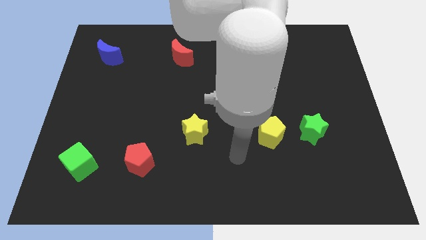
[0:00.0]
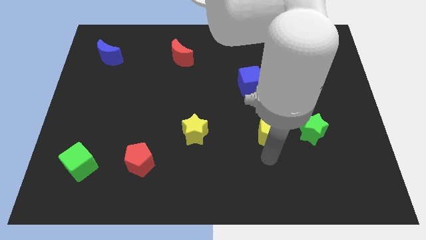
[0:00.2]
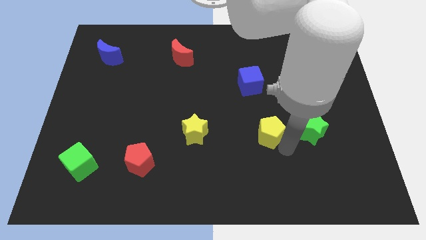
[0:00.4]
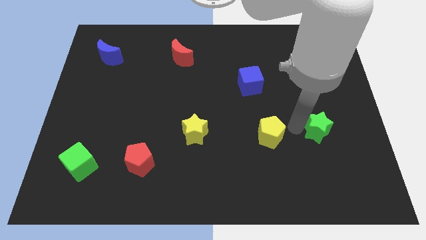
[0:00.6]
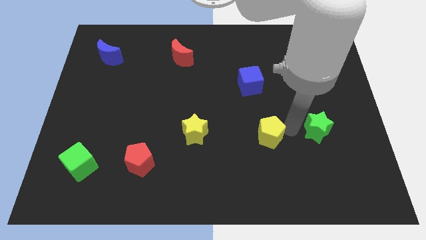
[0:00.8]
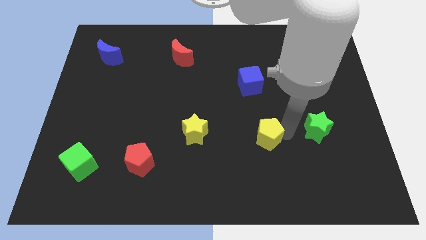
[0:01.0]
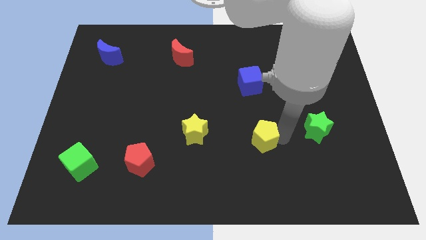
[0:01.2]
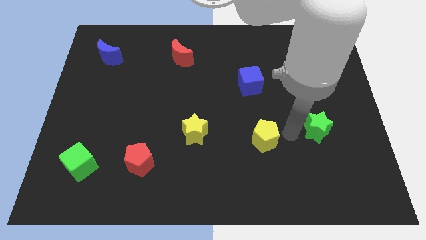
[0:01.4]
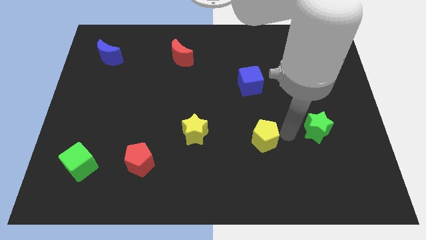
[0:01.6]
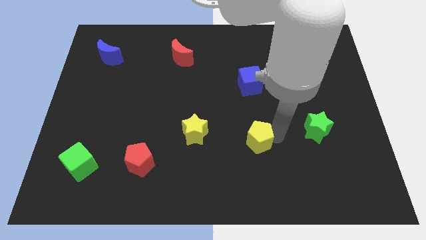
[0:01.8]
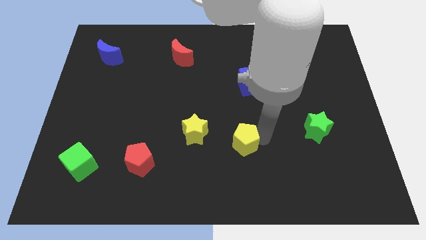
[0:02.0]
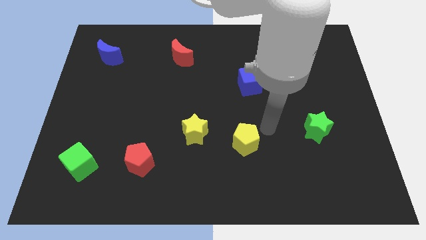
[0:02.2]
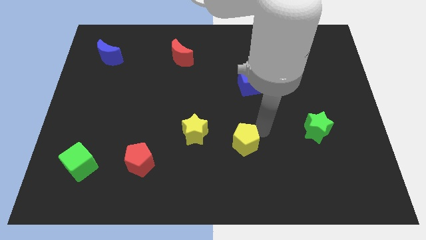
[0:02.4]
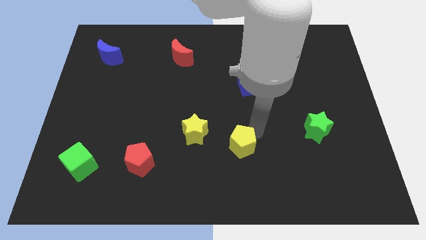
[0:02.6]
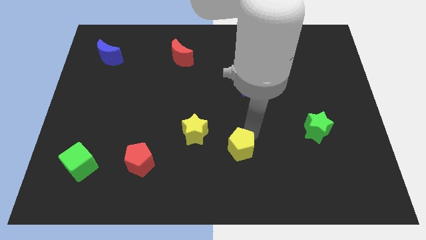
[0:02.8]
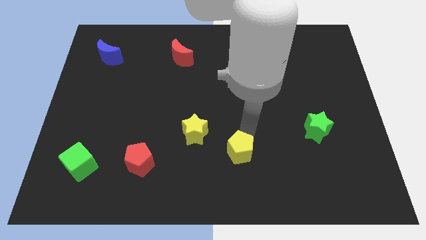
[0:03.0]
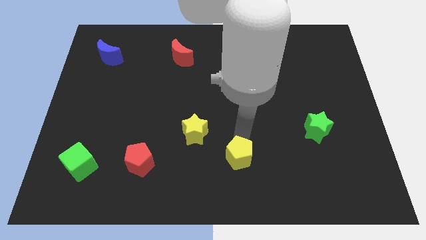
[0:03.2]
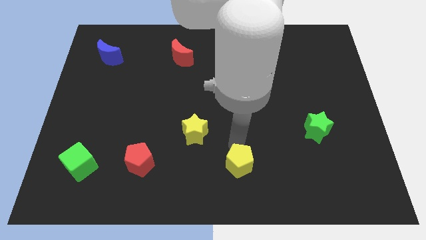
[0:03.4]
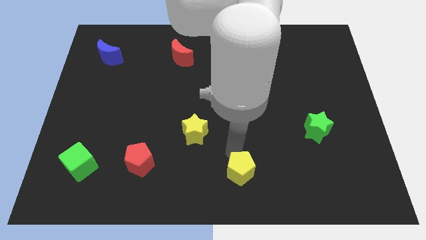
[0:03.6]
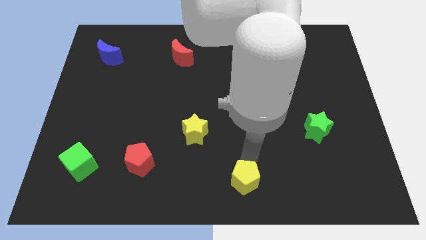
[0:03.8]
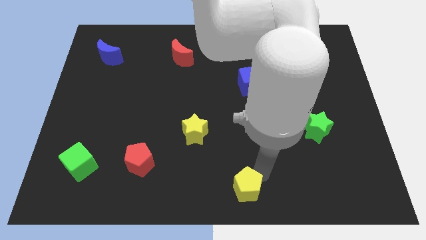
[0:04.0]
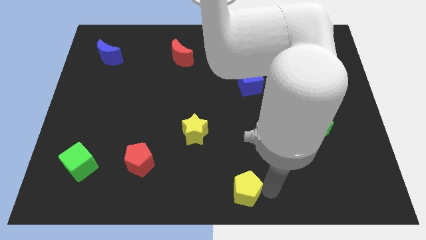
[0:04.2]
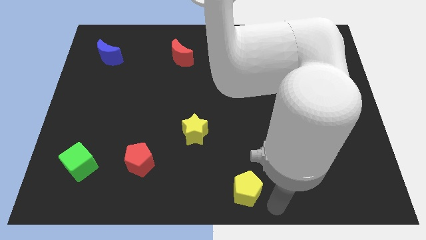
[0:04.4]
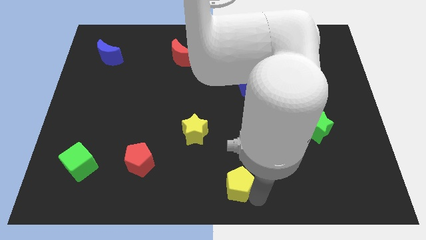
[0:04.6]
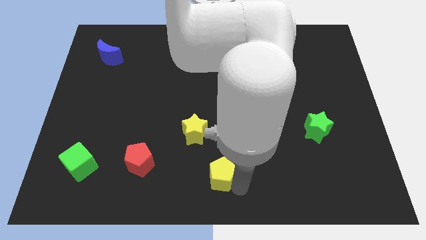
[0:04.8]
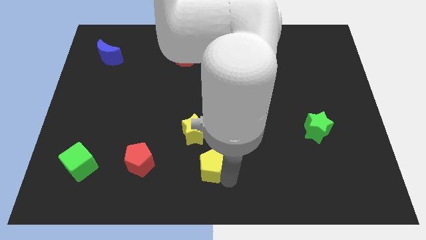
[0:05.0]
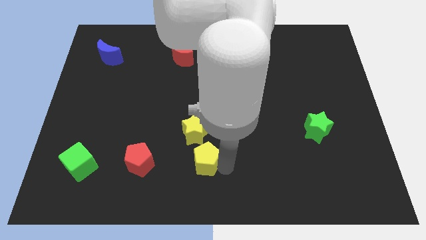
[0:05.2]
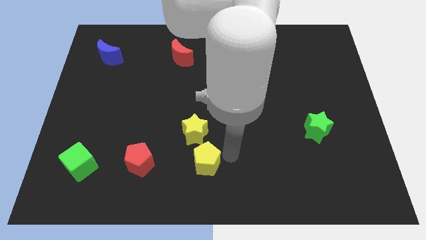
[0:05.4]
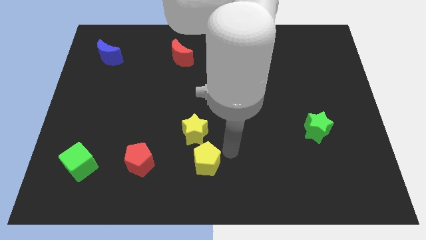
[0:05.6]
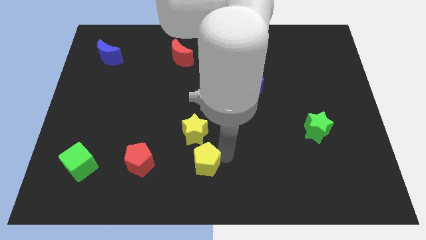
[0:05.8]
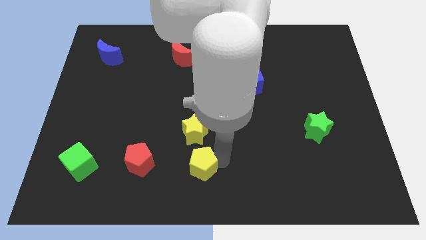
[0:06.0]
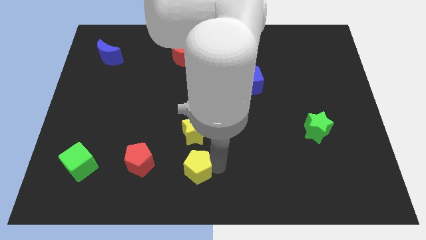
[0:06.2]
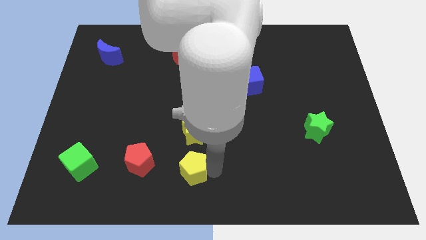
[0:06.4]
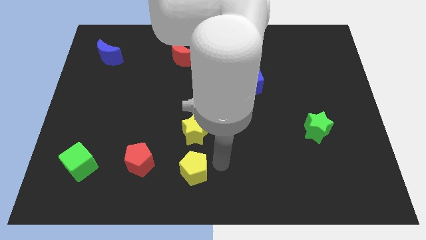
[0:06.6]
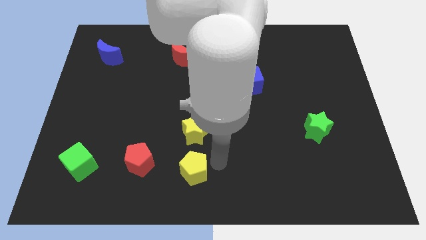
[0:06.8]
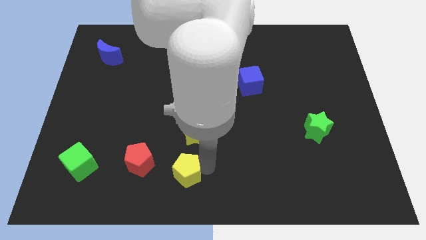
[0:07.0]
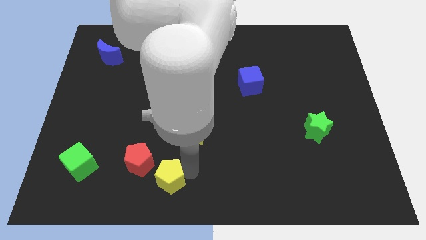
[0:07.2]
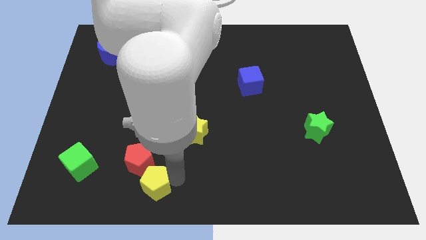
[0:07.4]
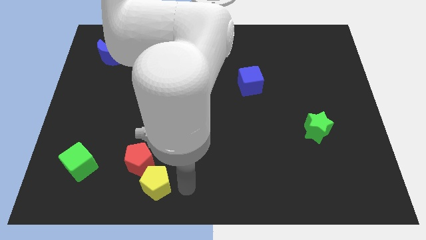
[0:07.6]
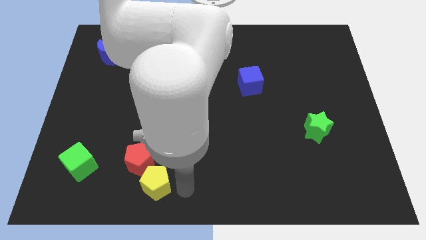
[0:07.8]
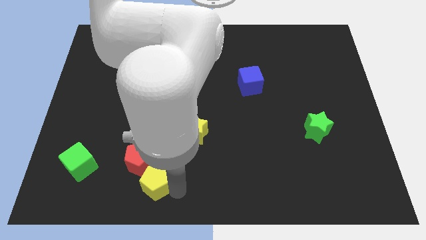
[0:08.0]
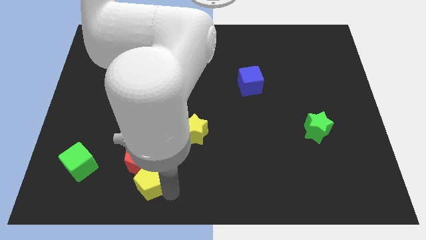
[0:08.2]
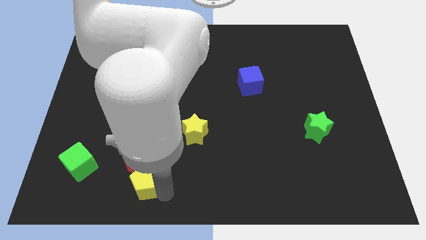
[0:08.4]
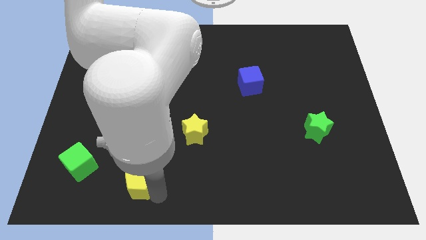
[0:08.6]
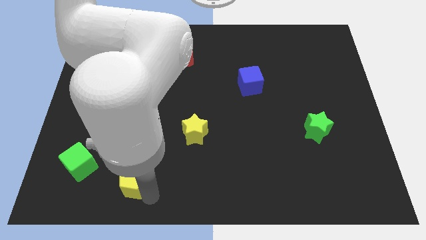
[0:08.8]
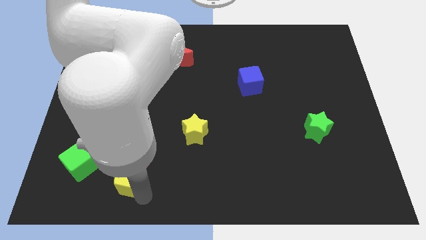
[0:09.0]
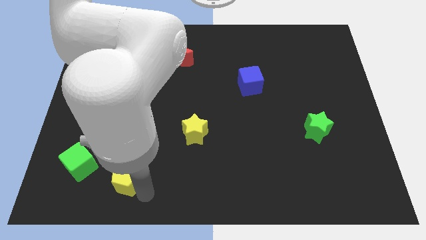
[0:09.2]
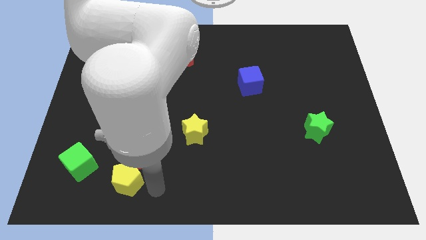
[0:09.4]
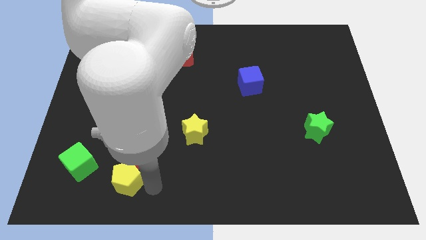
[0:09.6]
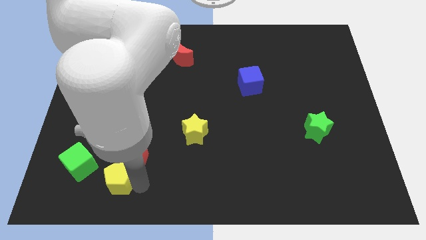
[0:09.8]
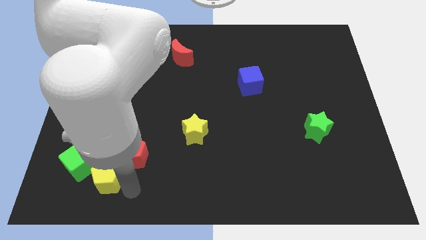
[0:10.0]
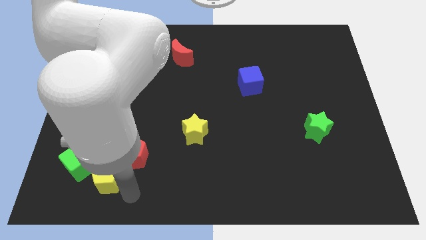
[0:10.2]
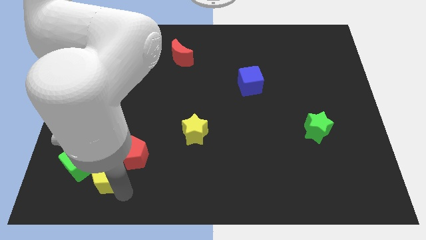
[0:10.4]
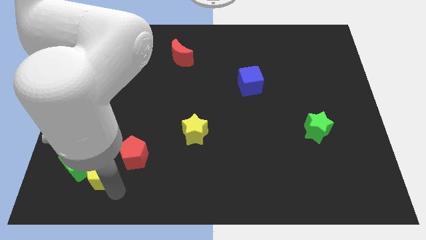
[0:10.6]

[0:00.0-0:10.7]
move the yellow pentagon close to the green cube

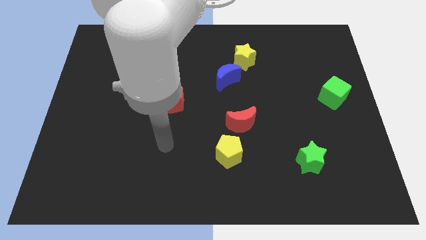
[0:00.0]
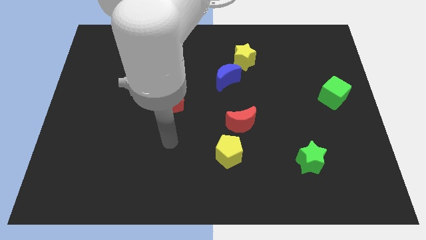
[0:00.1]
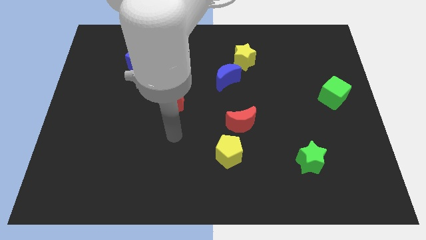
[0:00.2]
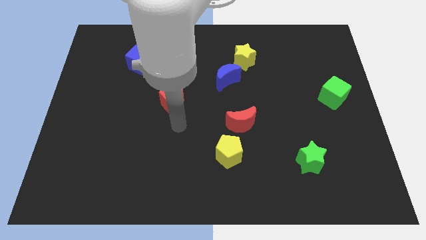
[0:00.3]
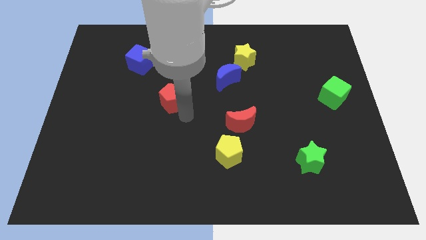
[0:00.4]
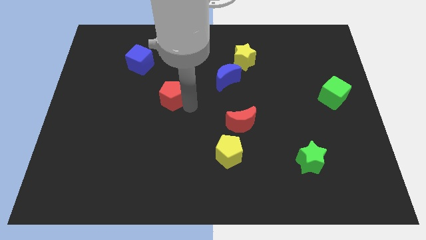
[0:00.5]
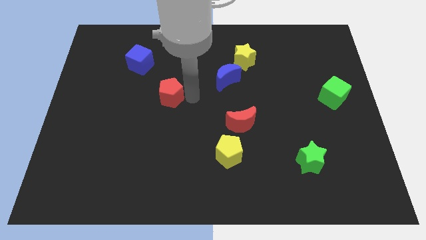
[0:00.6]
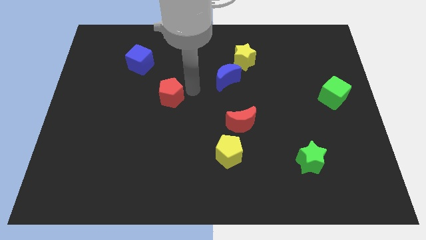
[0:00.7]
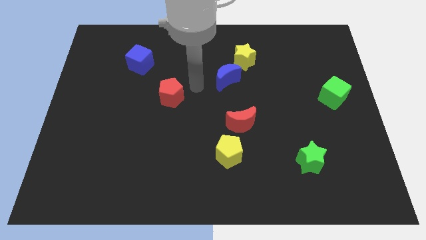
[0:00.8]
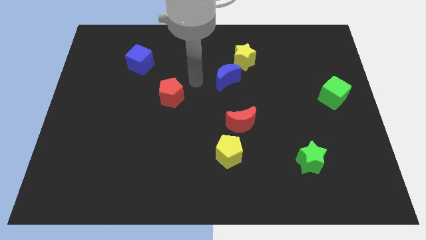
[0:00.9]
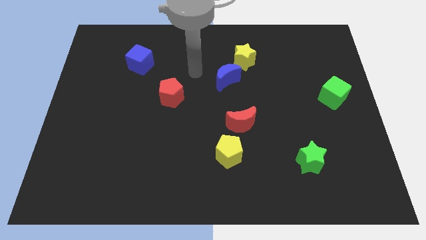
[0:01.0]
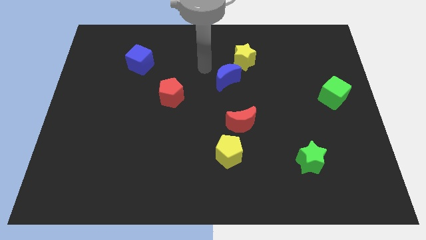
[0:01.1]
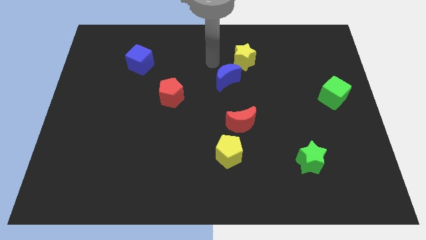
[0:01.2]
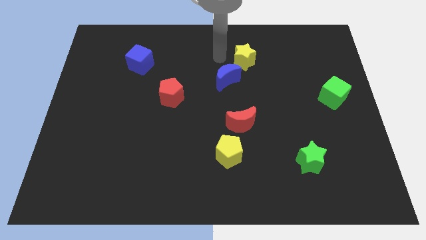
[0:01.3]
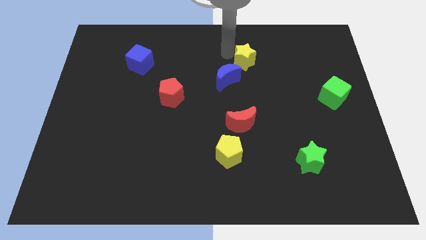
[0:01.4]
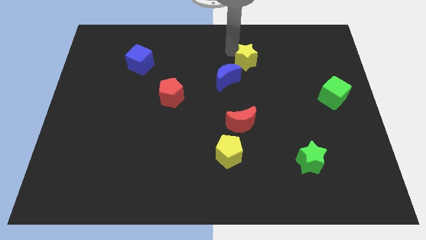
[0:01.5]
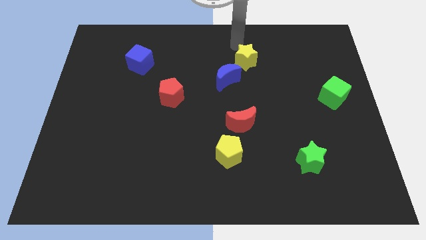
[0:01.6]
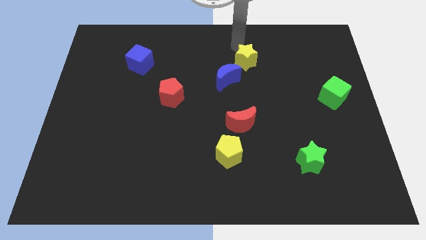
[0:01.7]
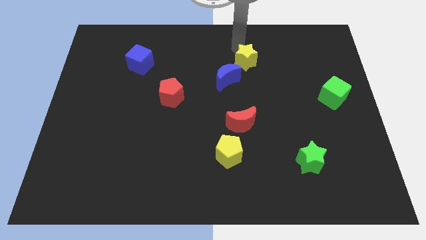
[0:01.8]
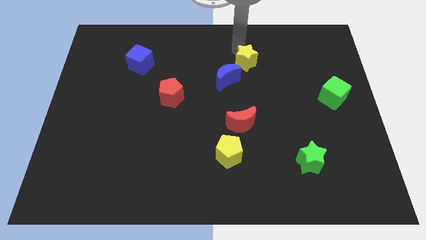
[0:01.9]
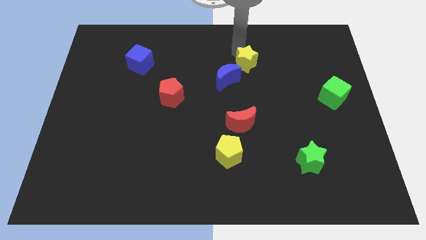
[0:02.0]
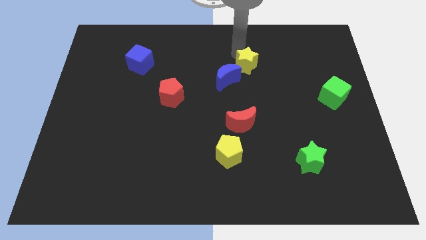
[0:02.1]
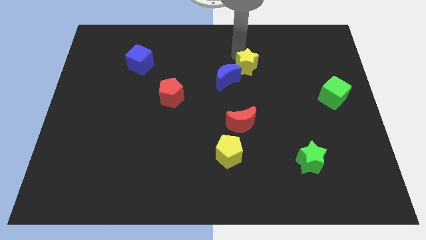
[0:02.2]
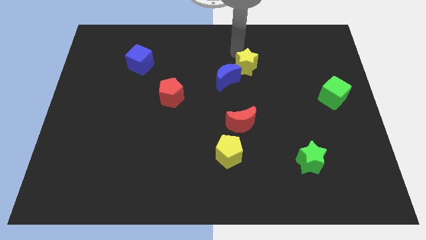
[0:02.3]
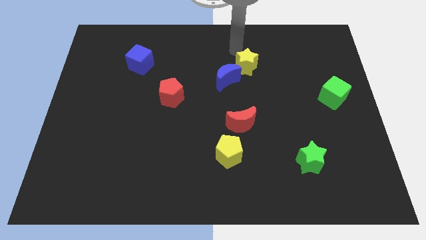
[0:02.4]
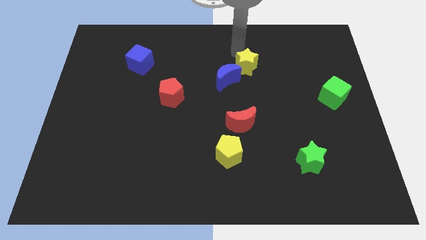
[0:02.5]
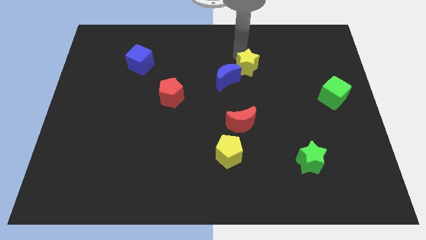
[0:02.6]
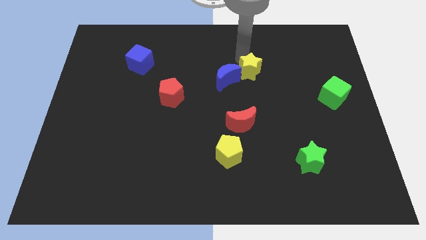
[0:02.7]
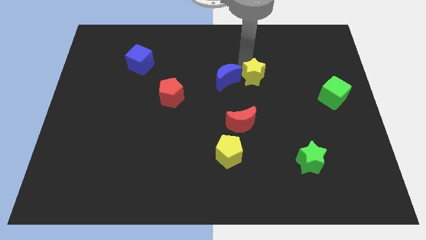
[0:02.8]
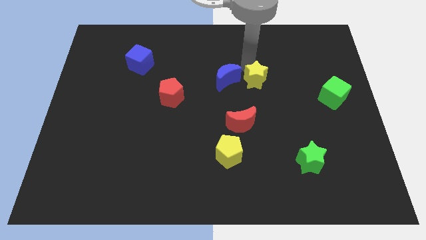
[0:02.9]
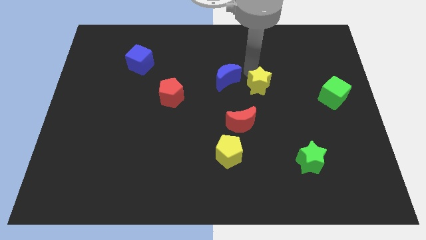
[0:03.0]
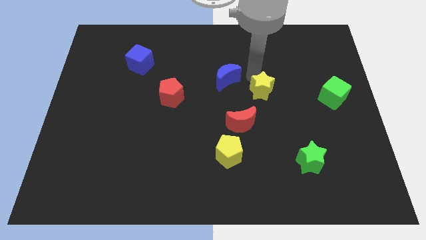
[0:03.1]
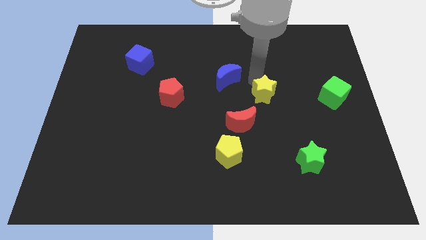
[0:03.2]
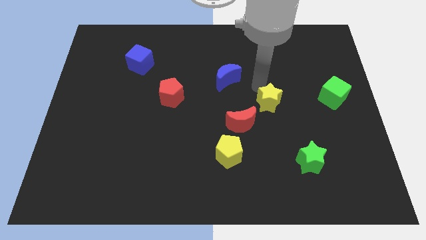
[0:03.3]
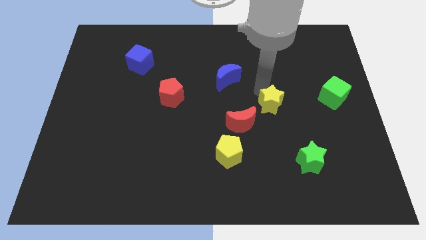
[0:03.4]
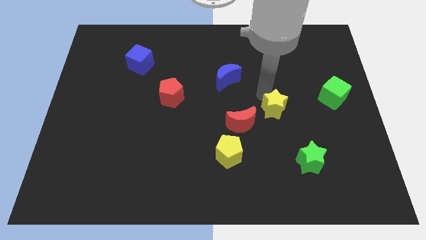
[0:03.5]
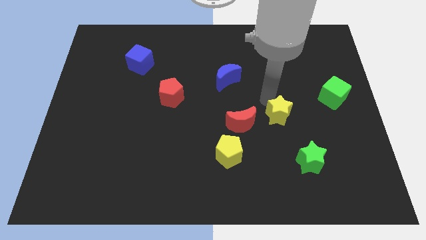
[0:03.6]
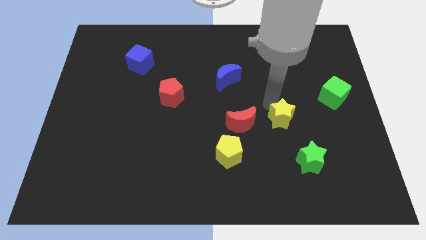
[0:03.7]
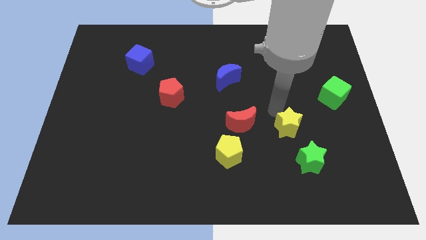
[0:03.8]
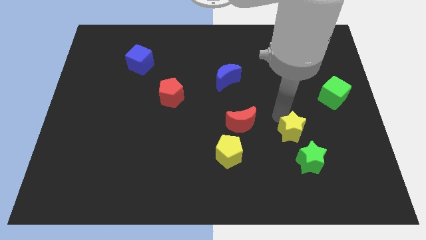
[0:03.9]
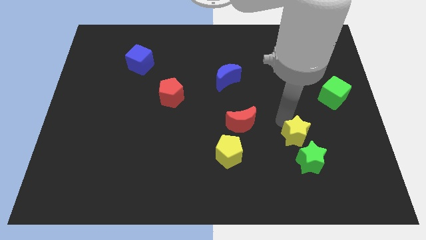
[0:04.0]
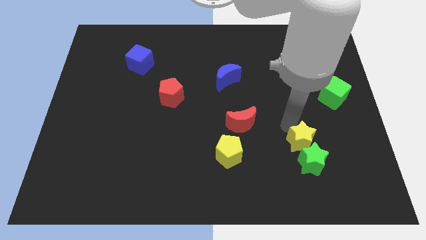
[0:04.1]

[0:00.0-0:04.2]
push the yellow star towards the green star
